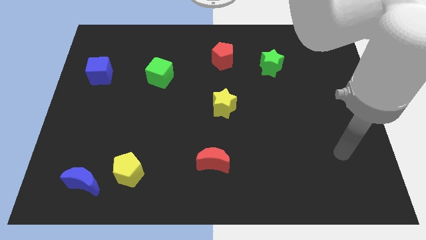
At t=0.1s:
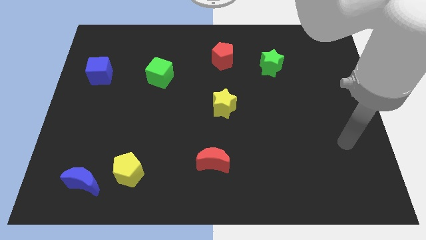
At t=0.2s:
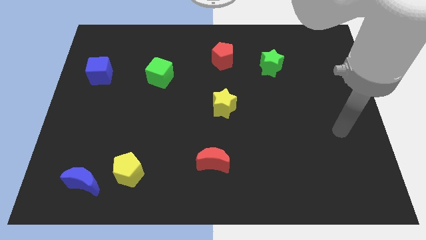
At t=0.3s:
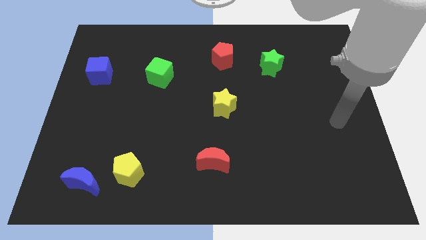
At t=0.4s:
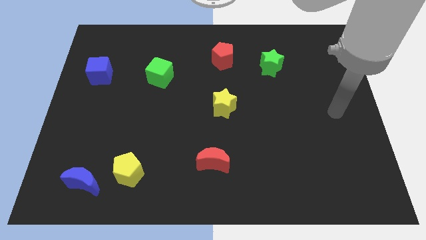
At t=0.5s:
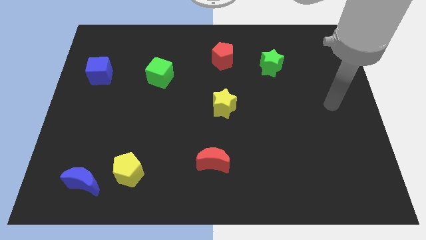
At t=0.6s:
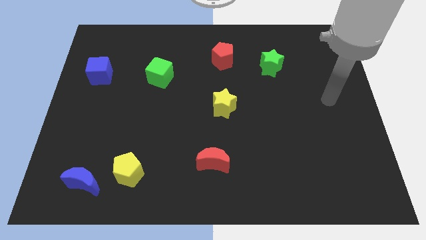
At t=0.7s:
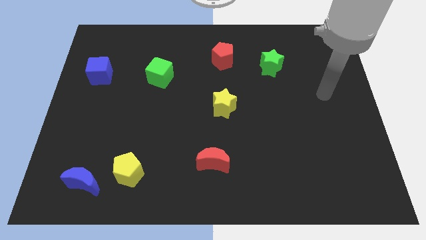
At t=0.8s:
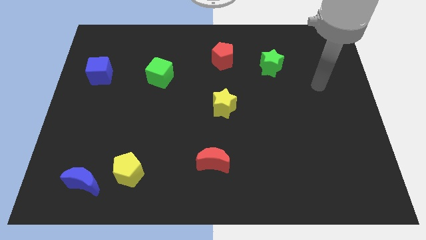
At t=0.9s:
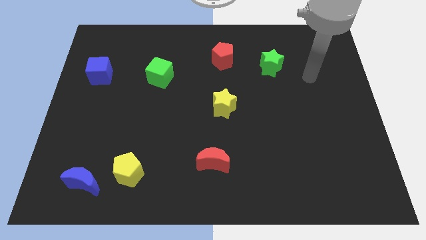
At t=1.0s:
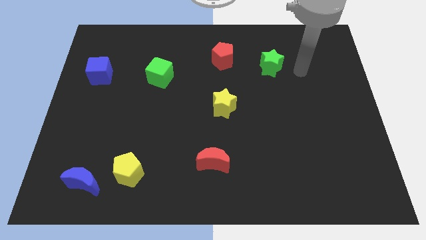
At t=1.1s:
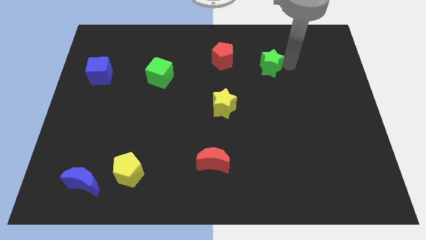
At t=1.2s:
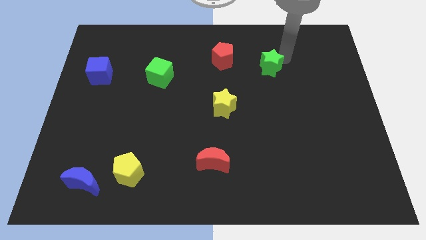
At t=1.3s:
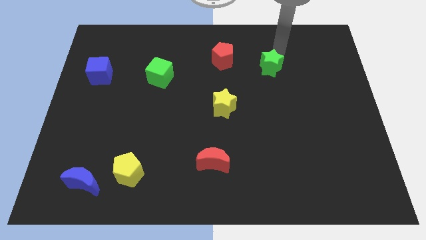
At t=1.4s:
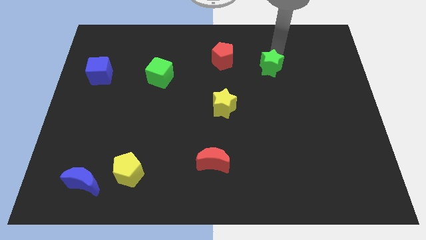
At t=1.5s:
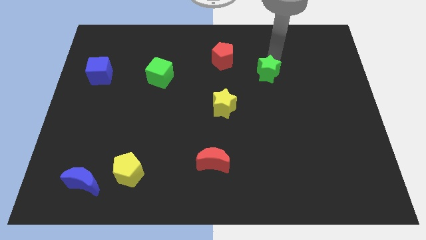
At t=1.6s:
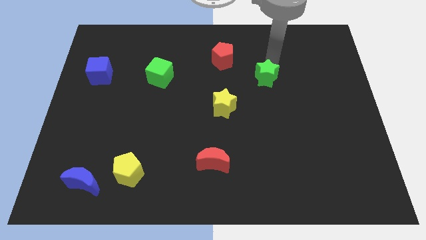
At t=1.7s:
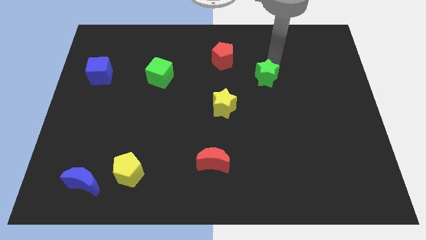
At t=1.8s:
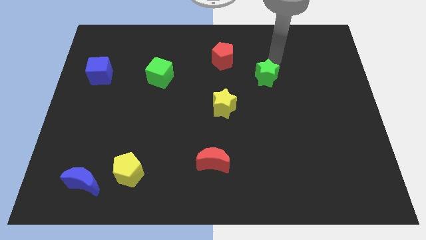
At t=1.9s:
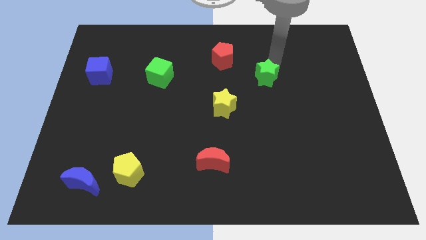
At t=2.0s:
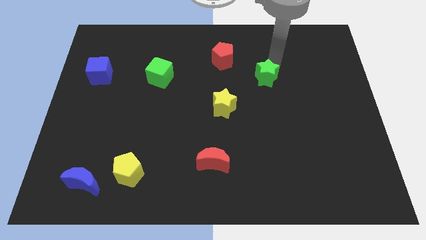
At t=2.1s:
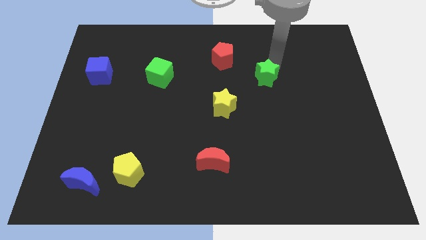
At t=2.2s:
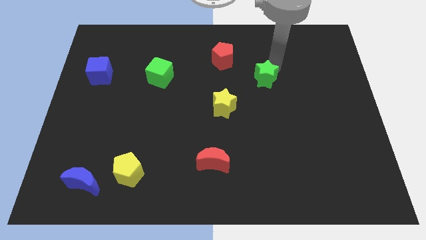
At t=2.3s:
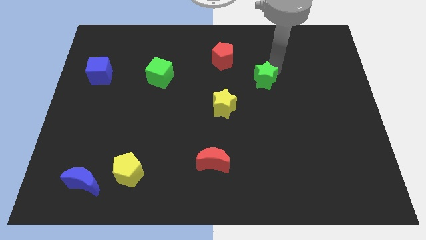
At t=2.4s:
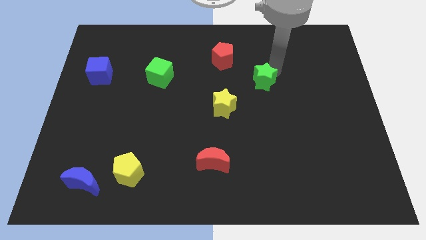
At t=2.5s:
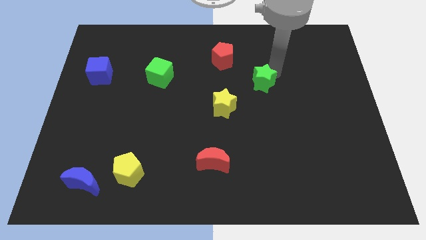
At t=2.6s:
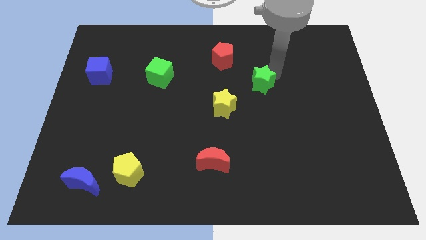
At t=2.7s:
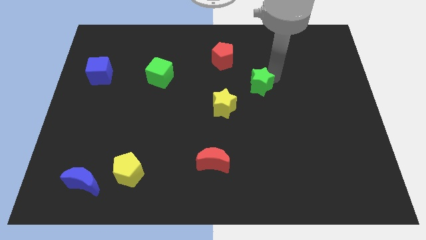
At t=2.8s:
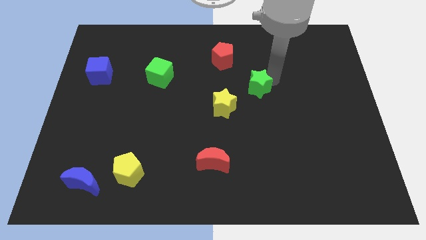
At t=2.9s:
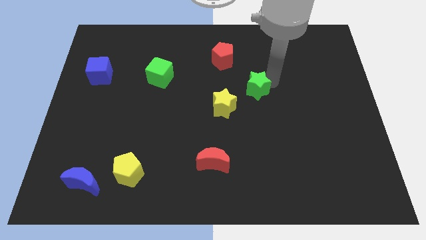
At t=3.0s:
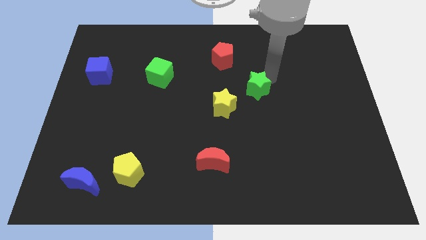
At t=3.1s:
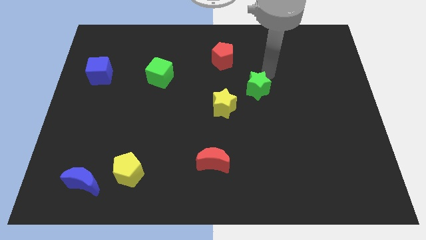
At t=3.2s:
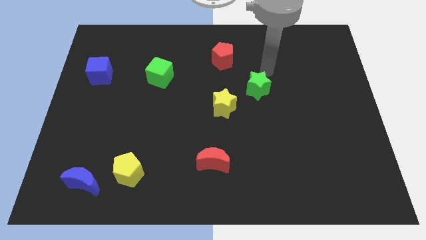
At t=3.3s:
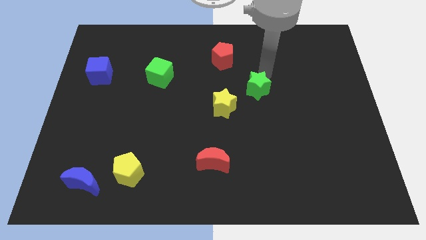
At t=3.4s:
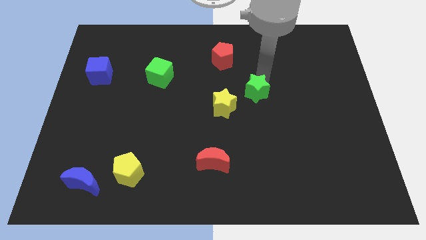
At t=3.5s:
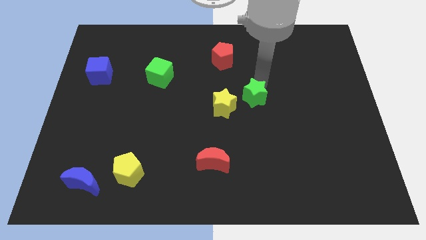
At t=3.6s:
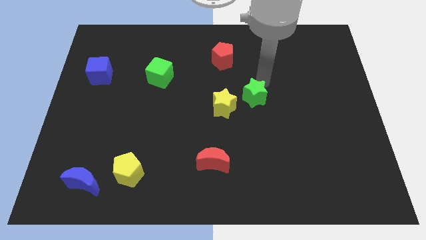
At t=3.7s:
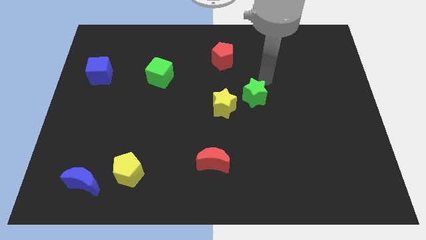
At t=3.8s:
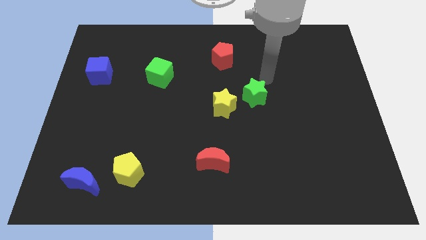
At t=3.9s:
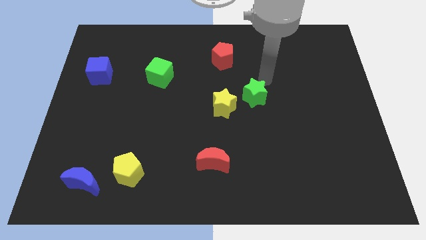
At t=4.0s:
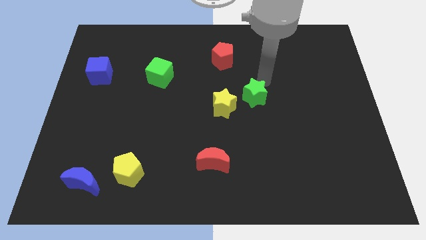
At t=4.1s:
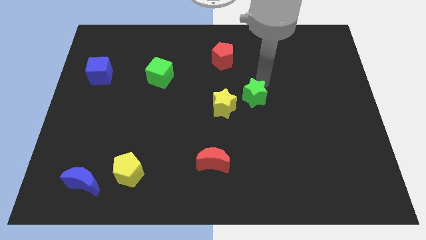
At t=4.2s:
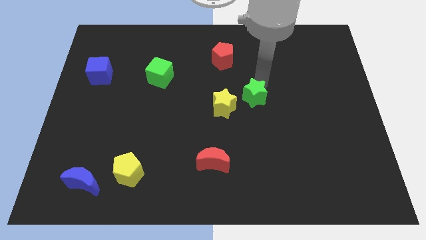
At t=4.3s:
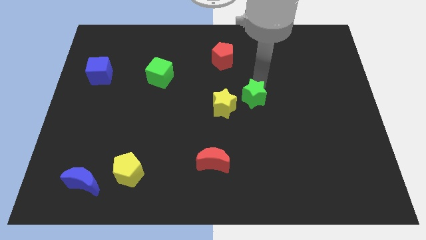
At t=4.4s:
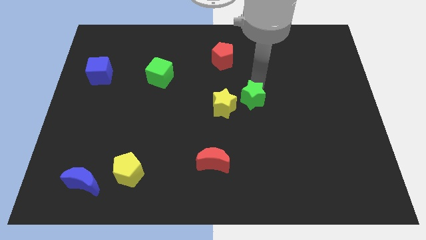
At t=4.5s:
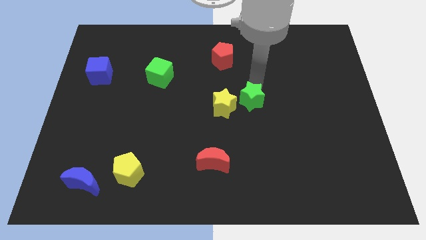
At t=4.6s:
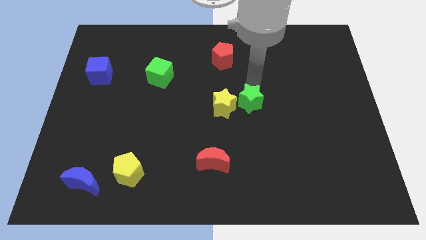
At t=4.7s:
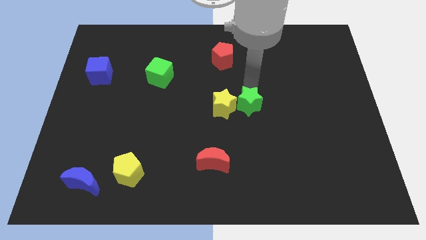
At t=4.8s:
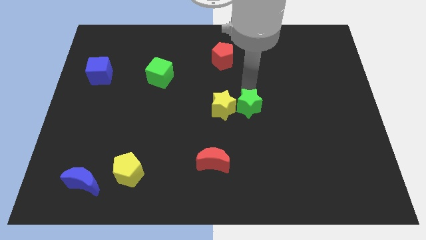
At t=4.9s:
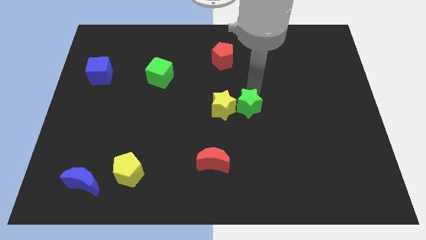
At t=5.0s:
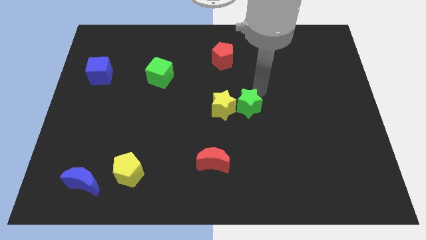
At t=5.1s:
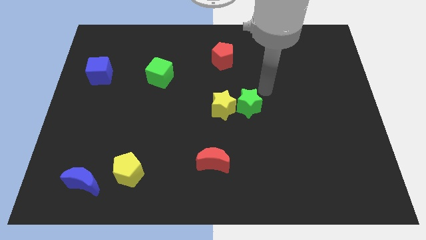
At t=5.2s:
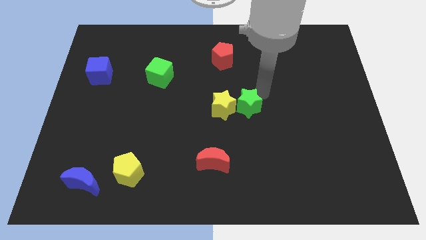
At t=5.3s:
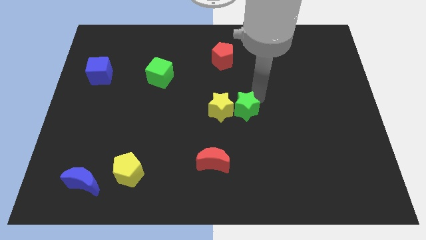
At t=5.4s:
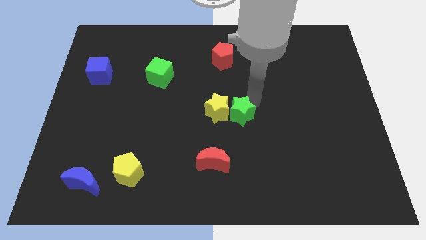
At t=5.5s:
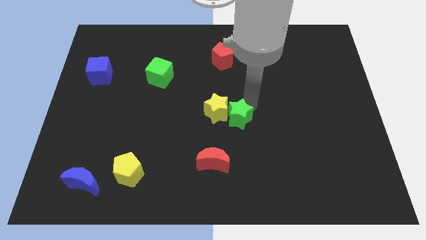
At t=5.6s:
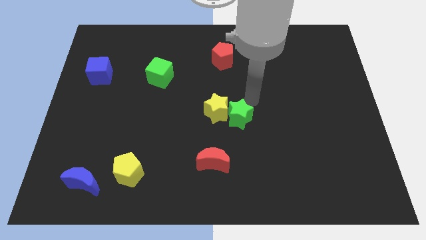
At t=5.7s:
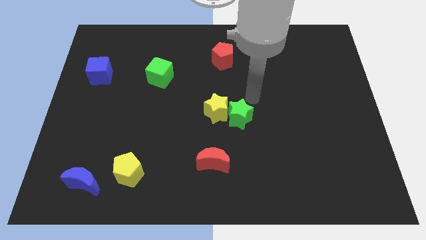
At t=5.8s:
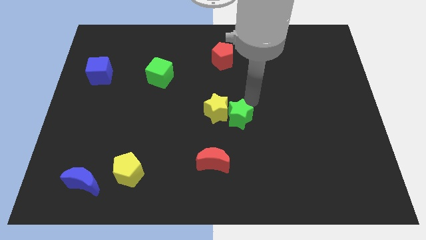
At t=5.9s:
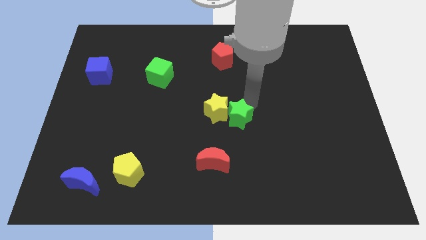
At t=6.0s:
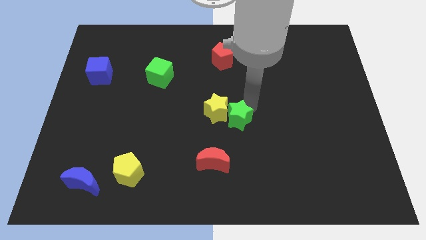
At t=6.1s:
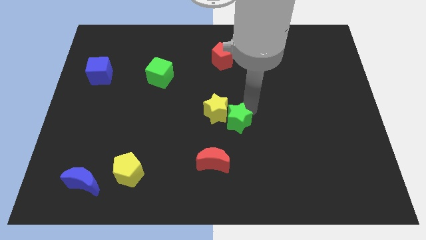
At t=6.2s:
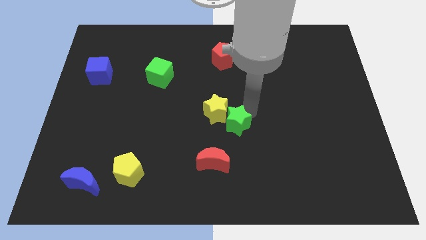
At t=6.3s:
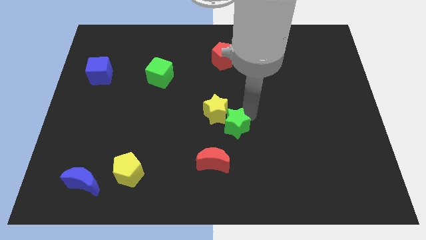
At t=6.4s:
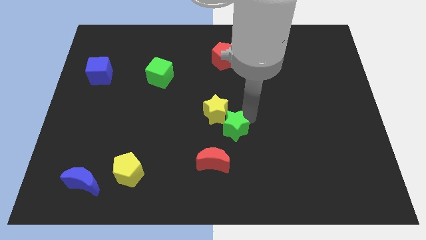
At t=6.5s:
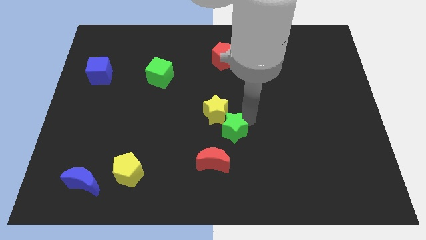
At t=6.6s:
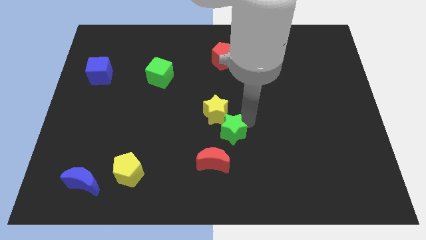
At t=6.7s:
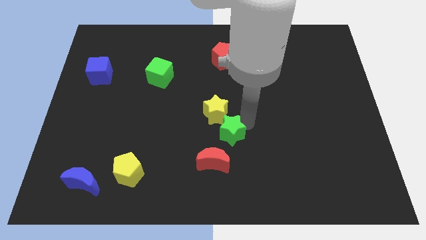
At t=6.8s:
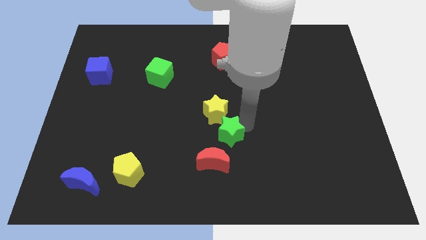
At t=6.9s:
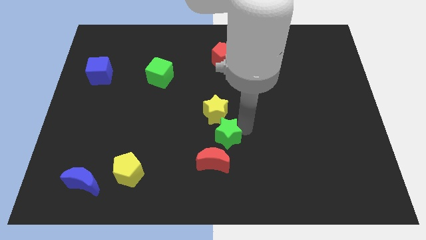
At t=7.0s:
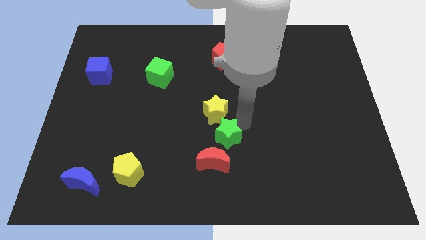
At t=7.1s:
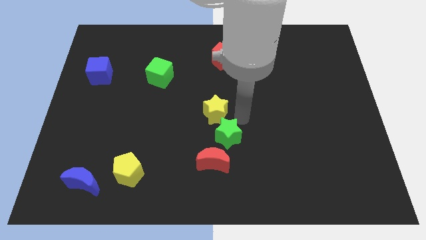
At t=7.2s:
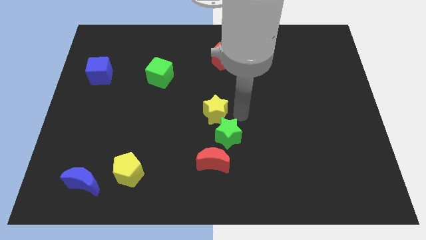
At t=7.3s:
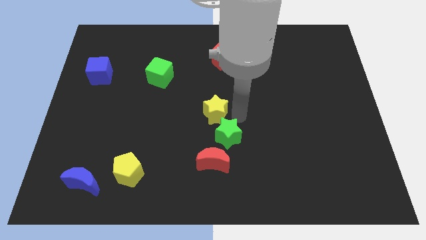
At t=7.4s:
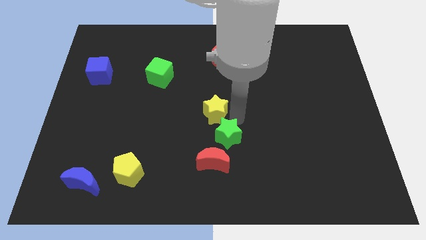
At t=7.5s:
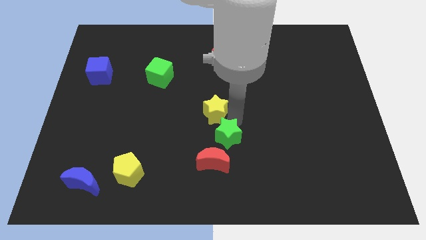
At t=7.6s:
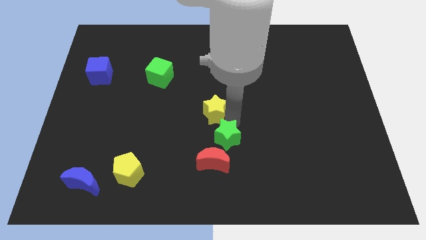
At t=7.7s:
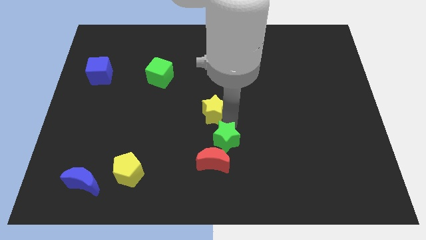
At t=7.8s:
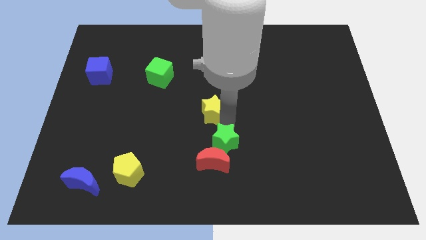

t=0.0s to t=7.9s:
put the green star close to the red moon
